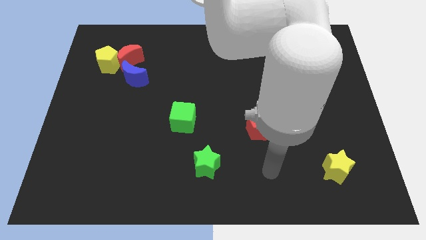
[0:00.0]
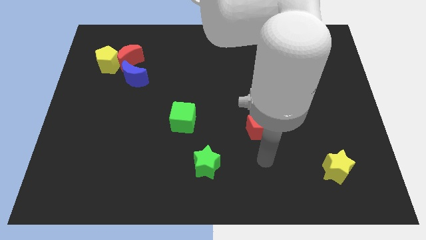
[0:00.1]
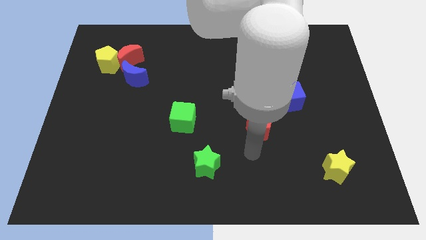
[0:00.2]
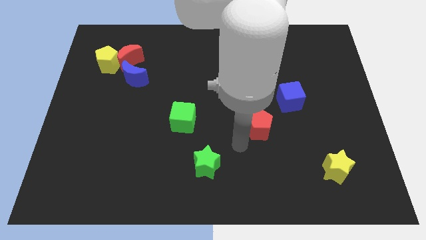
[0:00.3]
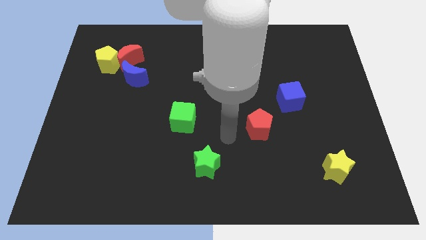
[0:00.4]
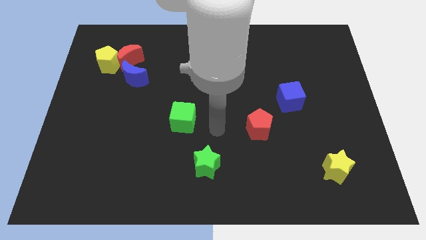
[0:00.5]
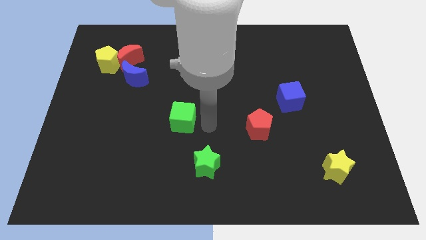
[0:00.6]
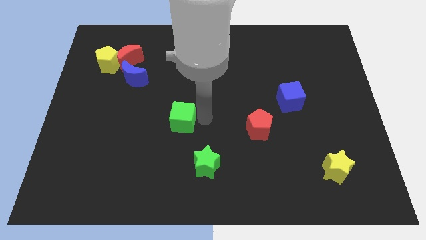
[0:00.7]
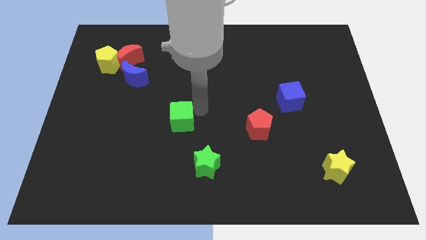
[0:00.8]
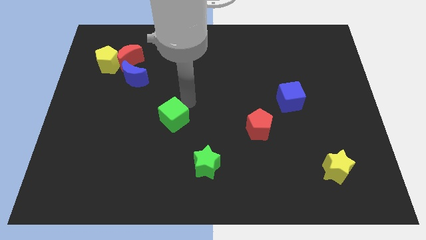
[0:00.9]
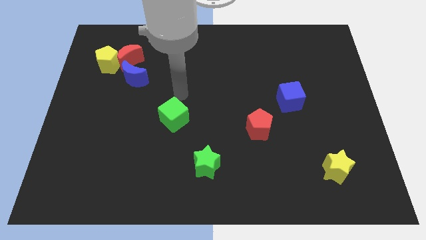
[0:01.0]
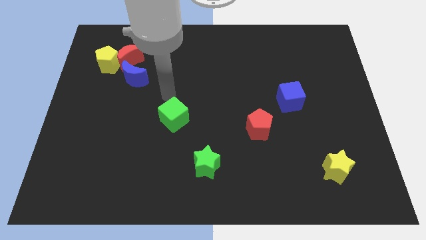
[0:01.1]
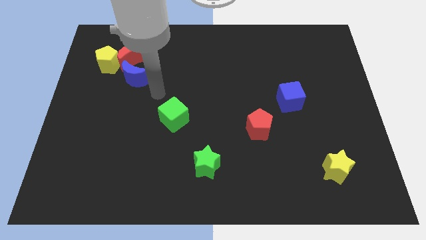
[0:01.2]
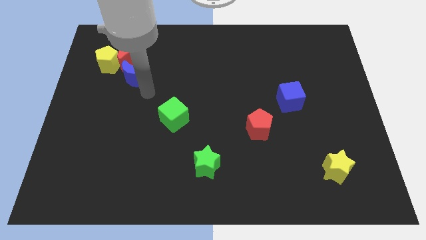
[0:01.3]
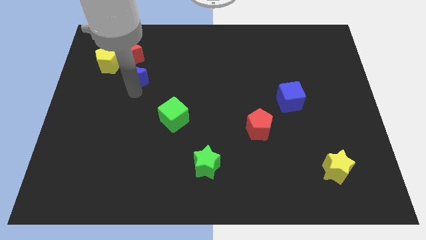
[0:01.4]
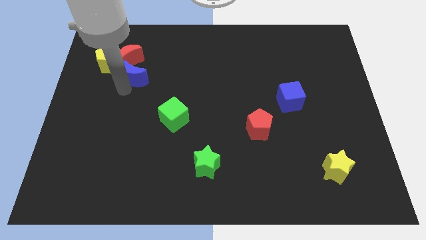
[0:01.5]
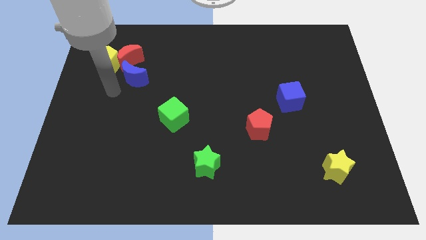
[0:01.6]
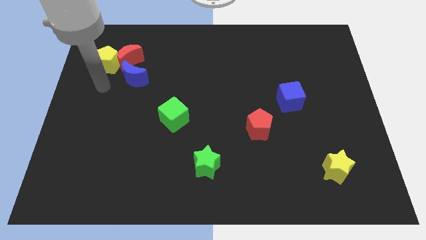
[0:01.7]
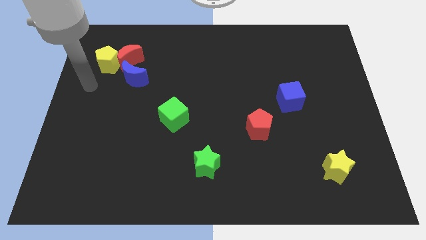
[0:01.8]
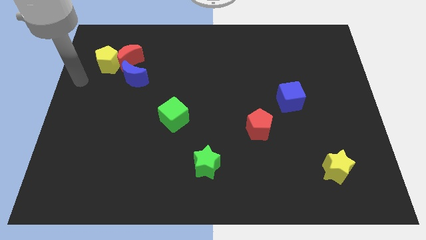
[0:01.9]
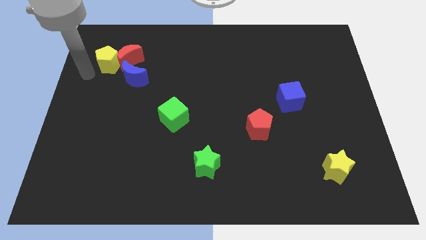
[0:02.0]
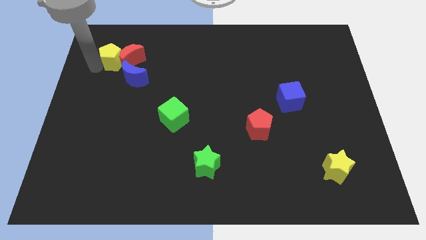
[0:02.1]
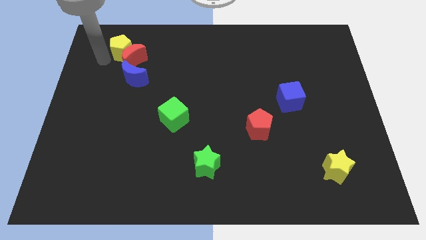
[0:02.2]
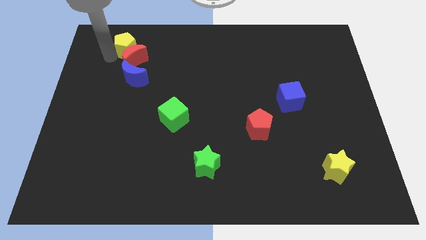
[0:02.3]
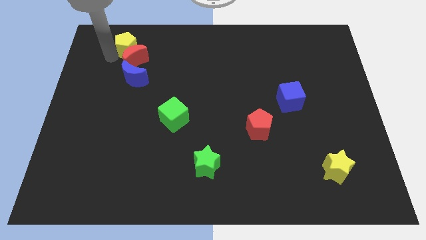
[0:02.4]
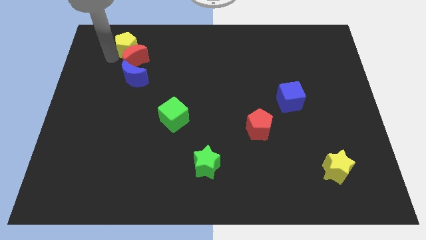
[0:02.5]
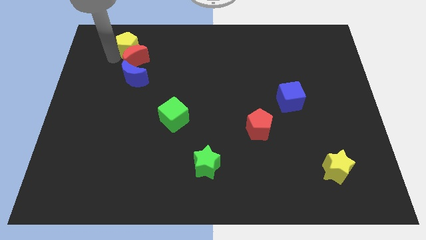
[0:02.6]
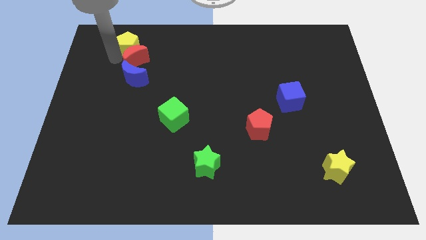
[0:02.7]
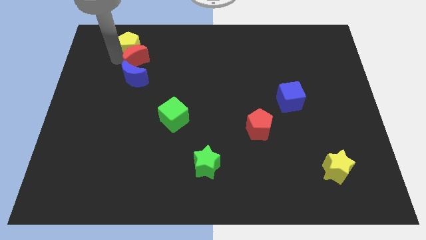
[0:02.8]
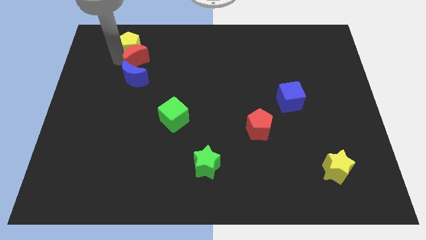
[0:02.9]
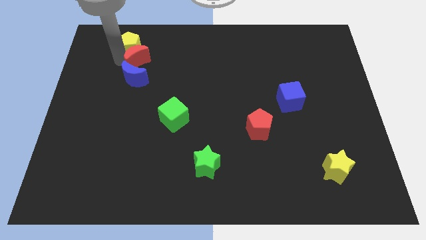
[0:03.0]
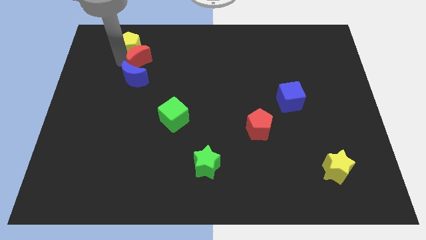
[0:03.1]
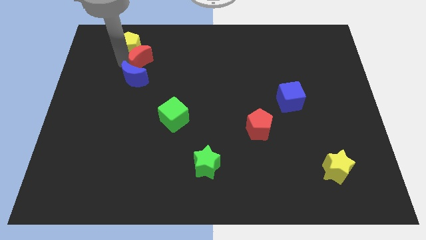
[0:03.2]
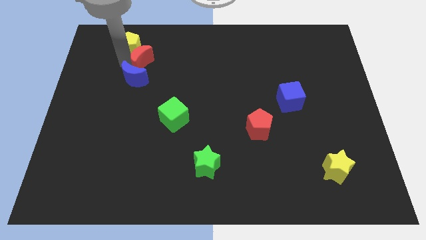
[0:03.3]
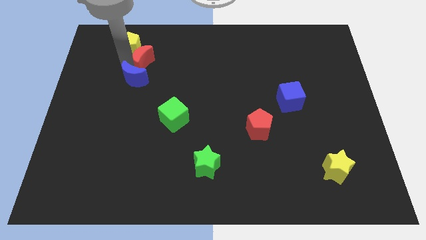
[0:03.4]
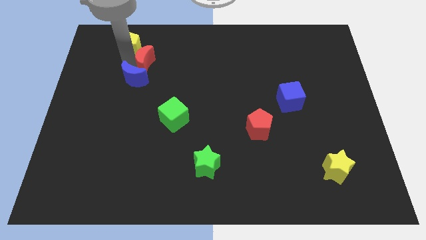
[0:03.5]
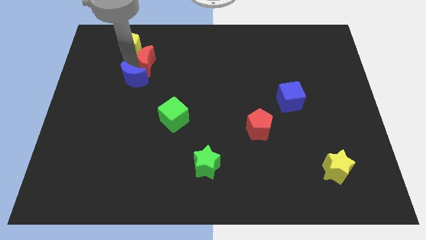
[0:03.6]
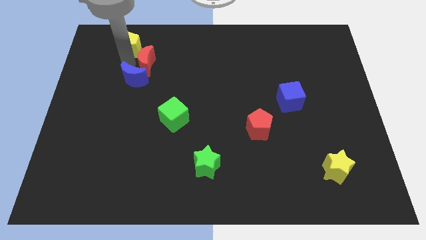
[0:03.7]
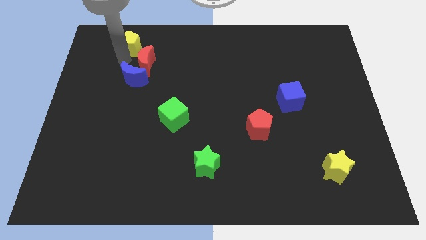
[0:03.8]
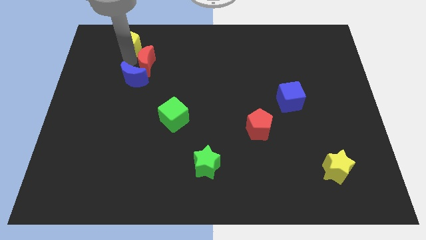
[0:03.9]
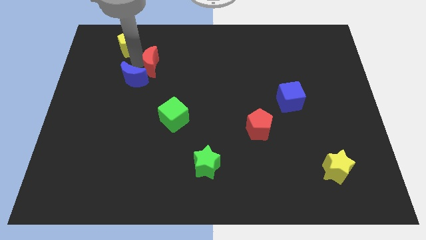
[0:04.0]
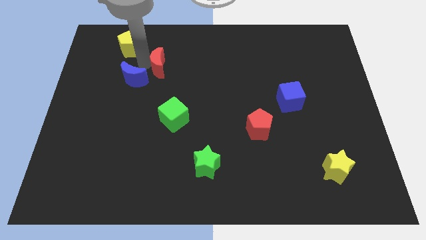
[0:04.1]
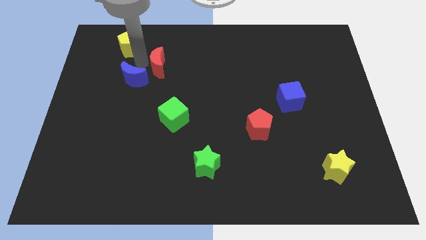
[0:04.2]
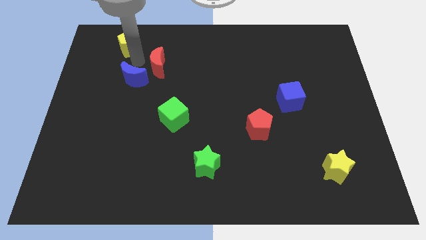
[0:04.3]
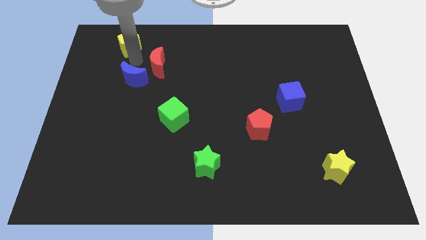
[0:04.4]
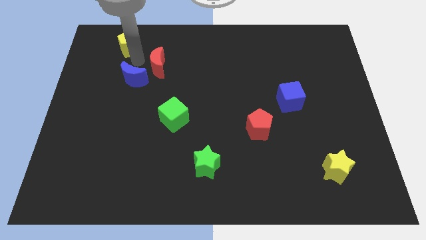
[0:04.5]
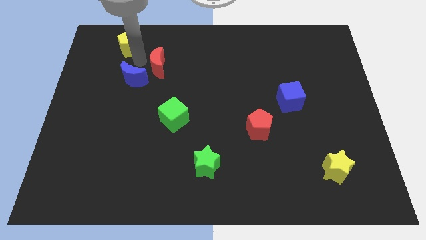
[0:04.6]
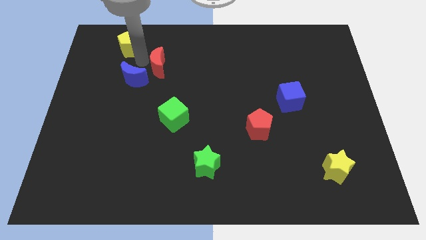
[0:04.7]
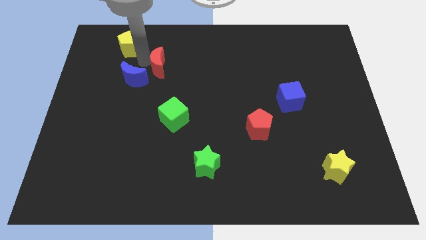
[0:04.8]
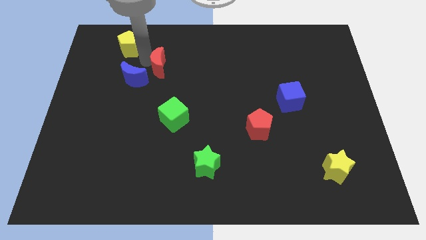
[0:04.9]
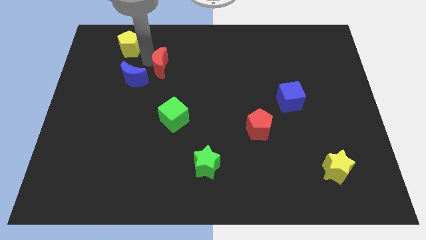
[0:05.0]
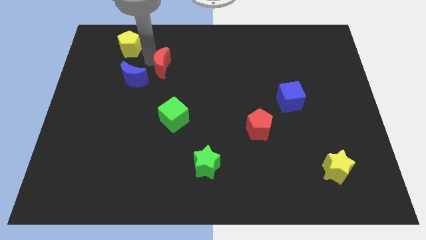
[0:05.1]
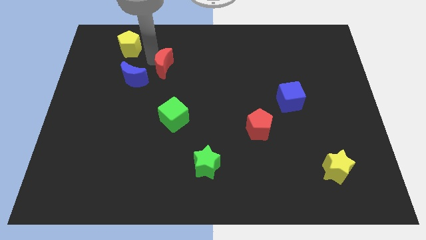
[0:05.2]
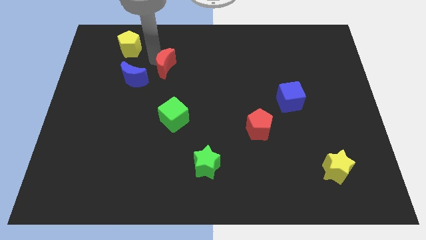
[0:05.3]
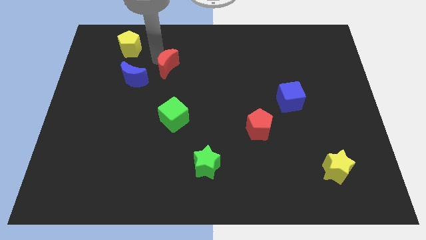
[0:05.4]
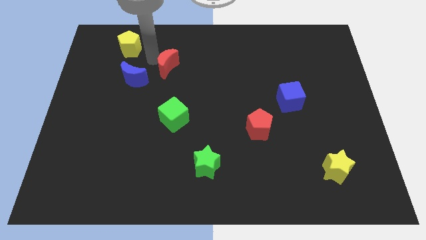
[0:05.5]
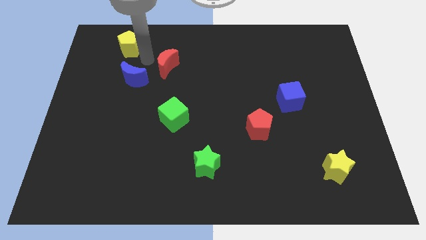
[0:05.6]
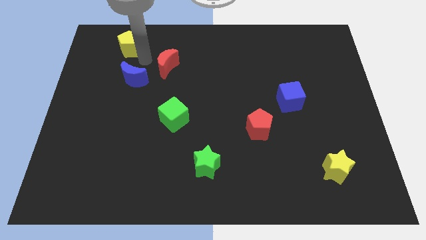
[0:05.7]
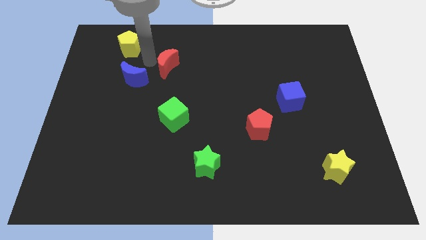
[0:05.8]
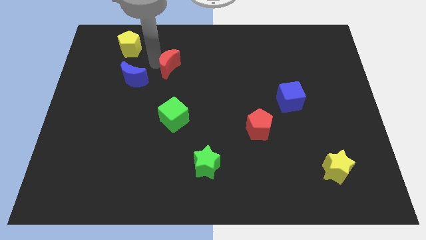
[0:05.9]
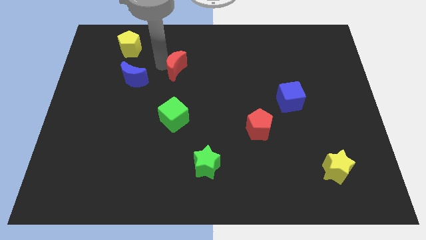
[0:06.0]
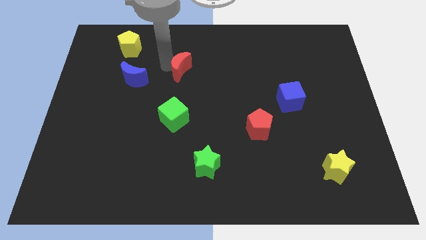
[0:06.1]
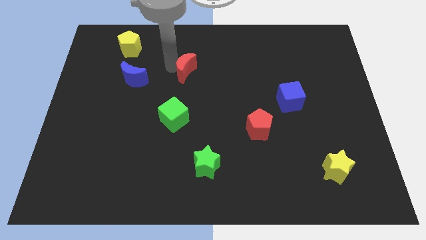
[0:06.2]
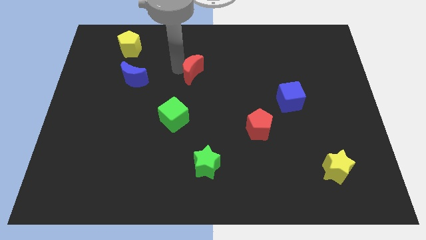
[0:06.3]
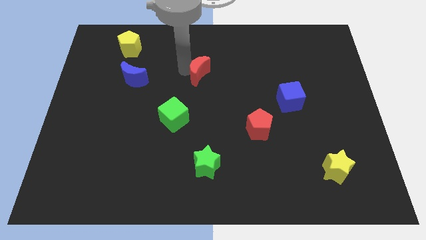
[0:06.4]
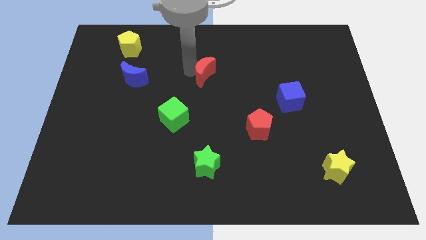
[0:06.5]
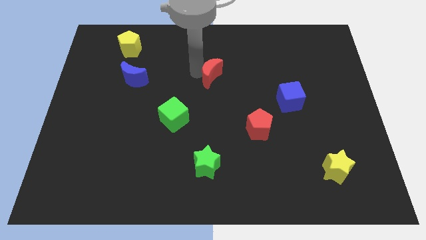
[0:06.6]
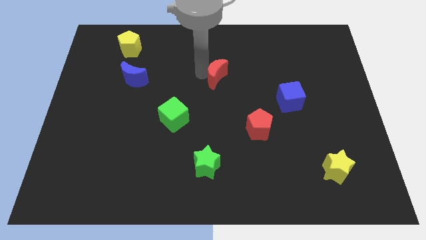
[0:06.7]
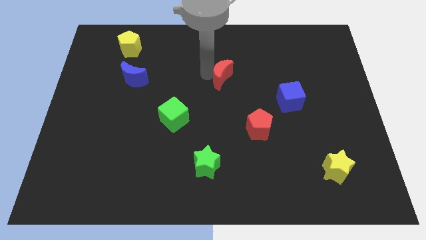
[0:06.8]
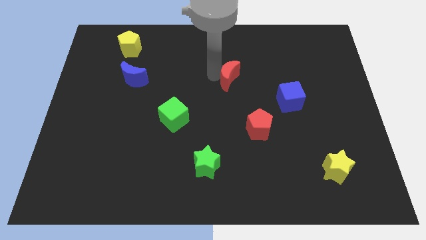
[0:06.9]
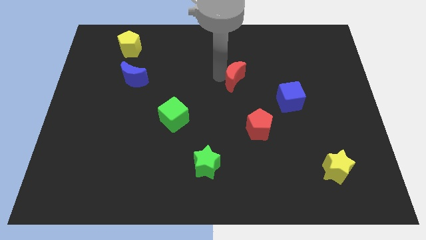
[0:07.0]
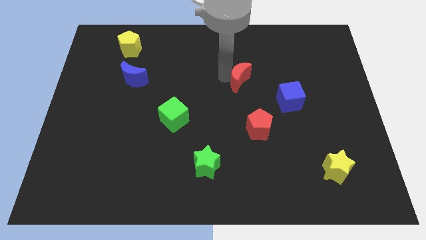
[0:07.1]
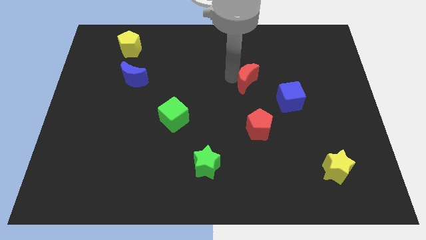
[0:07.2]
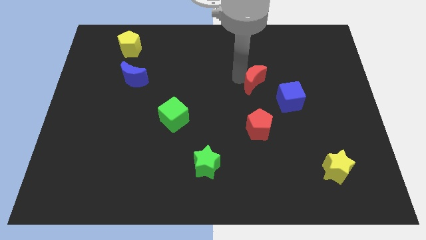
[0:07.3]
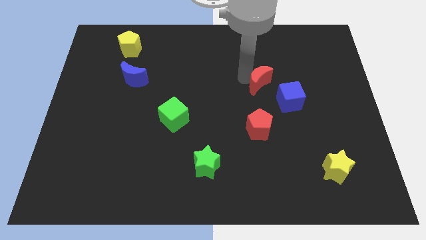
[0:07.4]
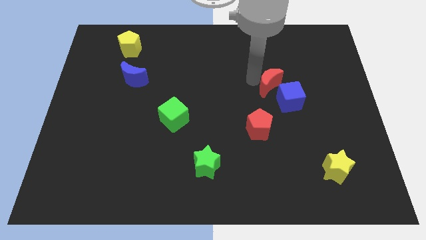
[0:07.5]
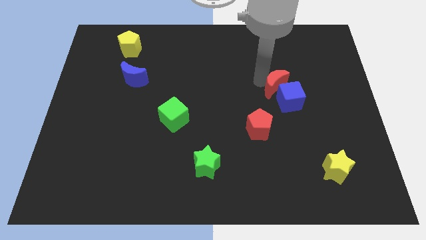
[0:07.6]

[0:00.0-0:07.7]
put the red moon to the blue cube

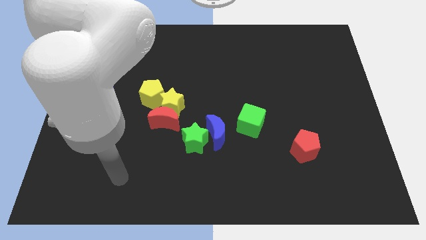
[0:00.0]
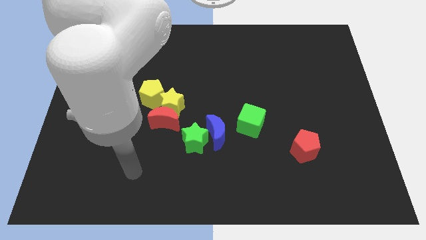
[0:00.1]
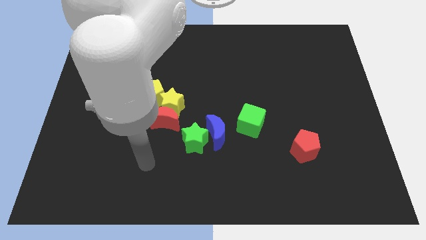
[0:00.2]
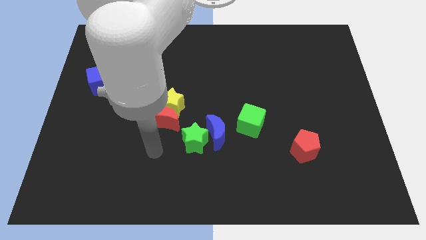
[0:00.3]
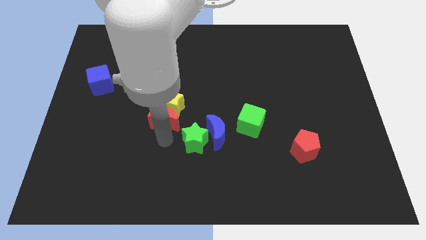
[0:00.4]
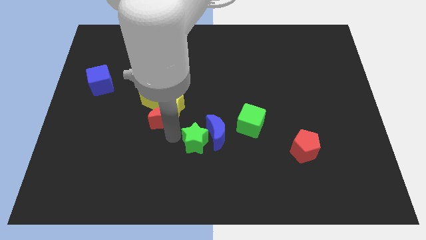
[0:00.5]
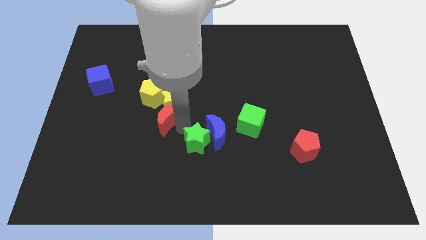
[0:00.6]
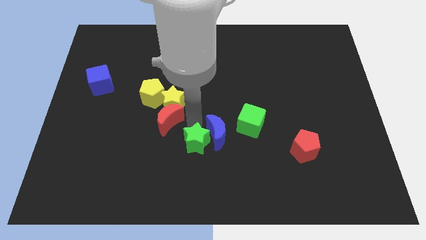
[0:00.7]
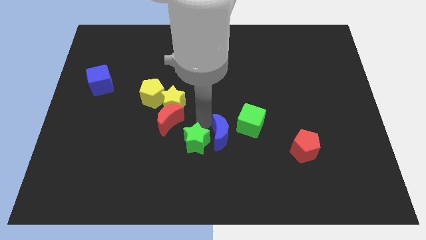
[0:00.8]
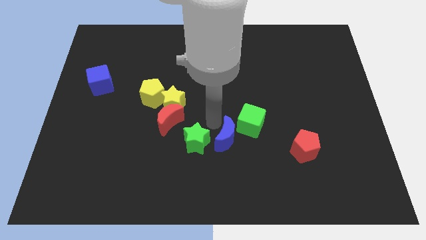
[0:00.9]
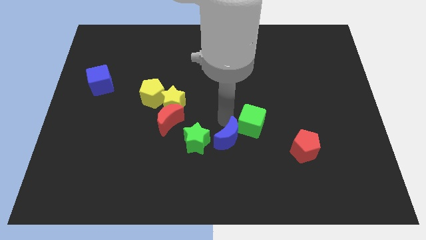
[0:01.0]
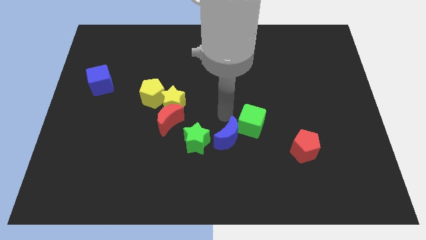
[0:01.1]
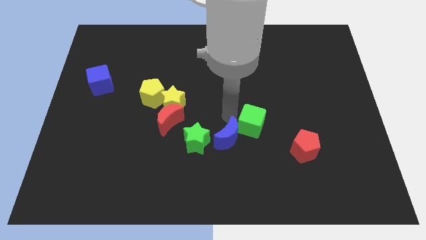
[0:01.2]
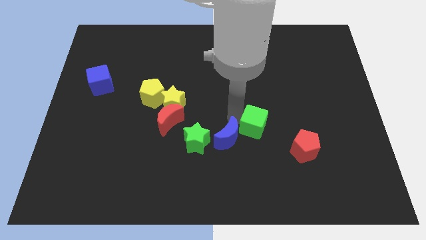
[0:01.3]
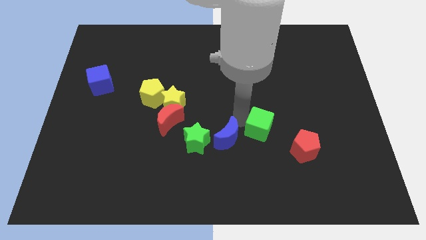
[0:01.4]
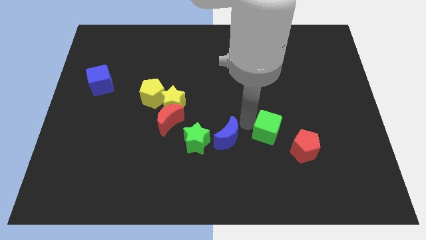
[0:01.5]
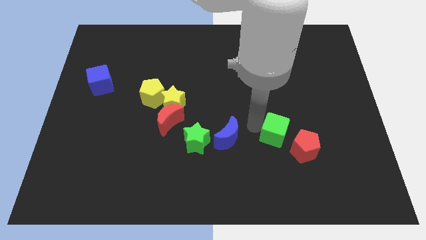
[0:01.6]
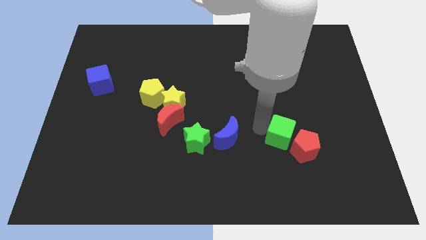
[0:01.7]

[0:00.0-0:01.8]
push the green cube next to the red pentagon
